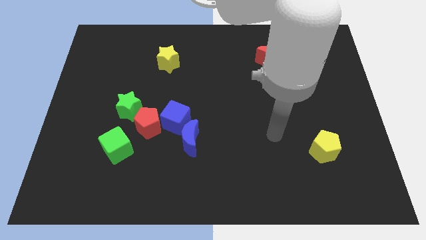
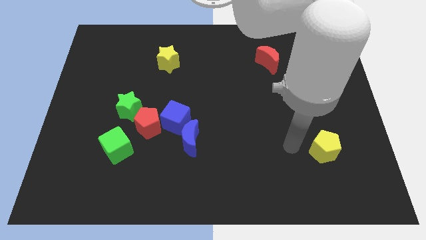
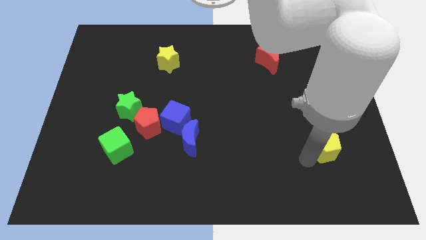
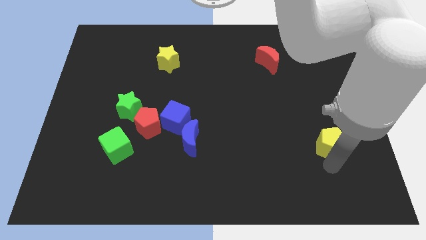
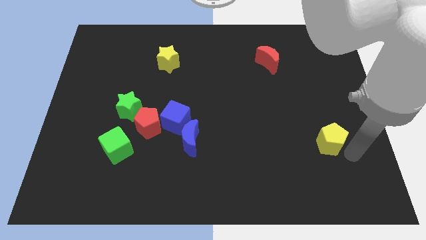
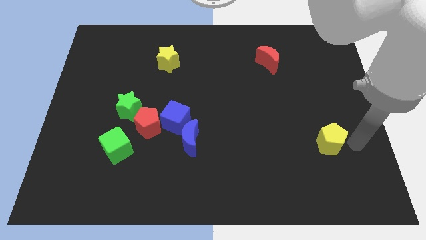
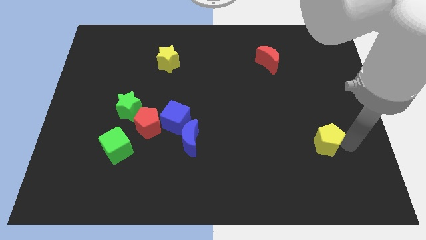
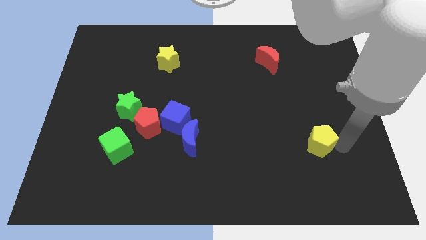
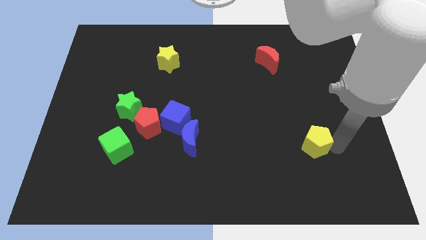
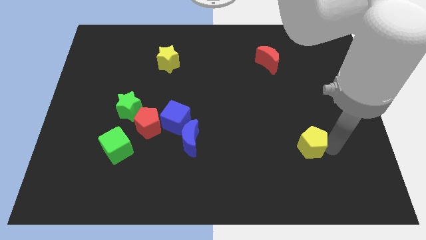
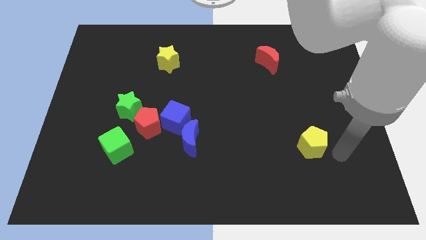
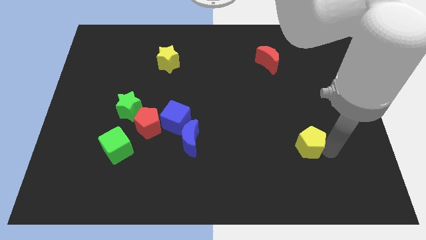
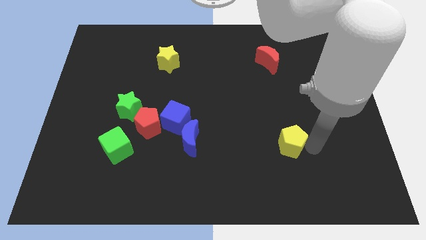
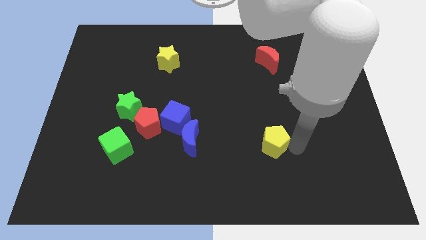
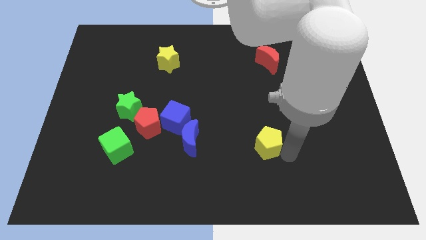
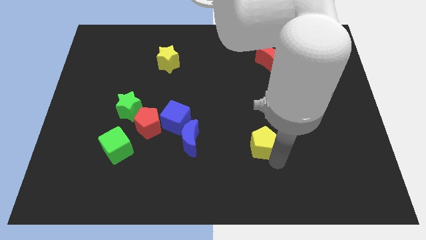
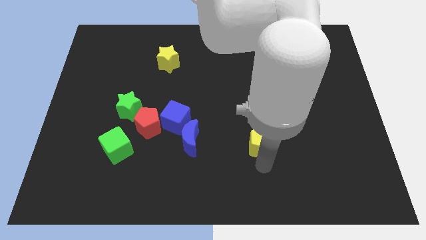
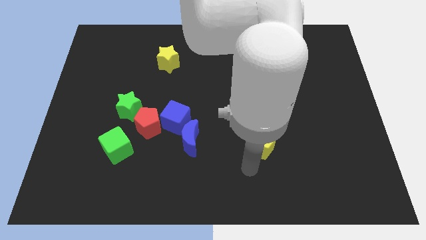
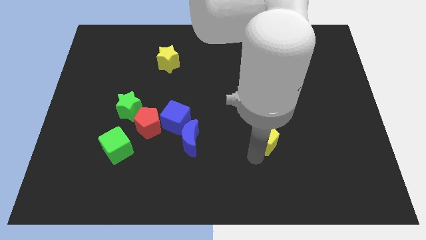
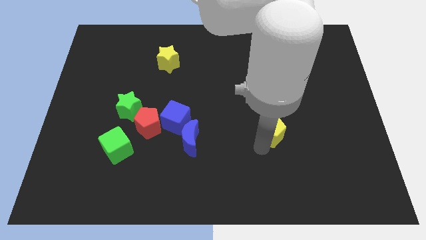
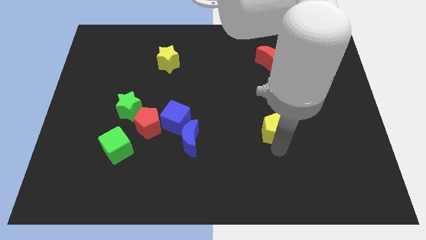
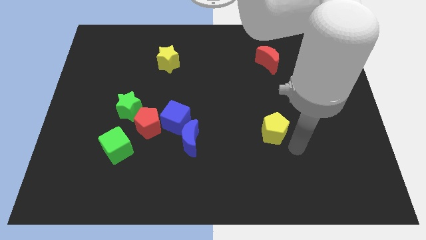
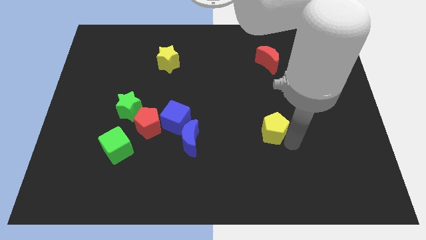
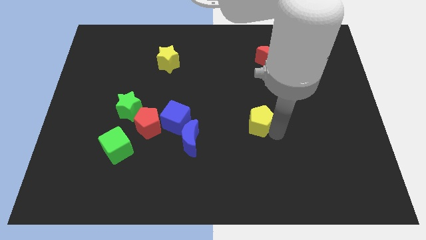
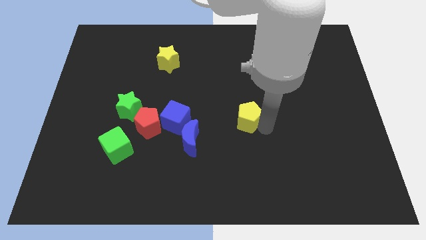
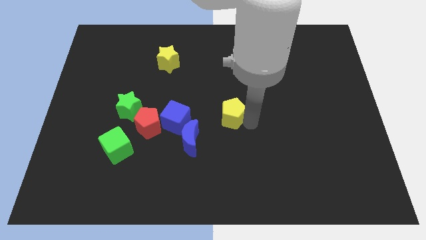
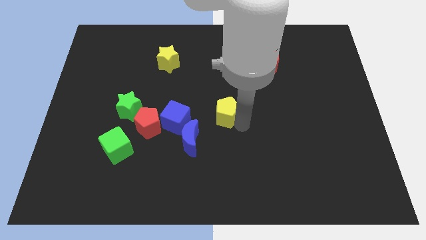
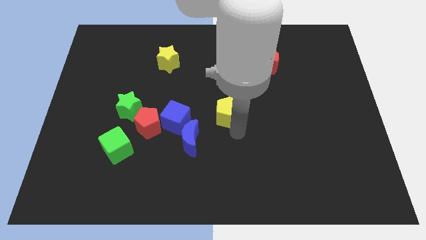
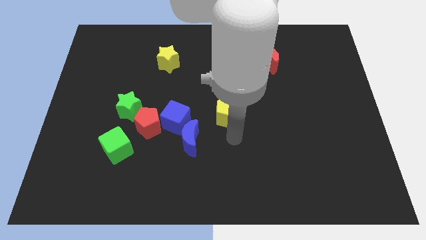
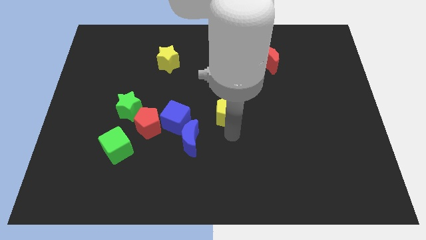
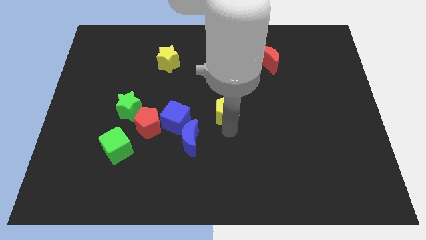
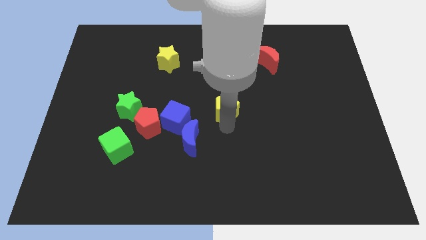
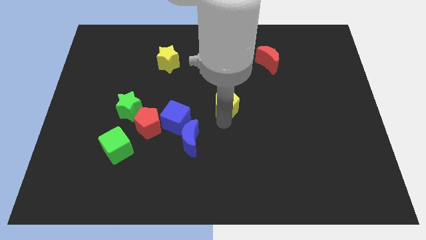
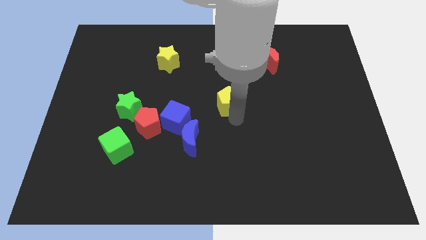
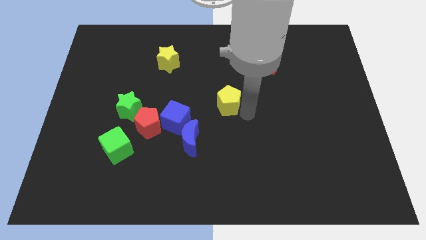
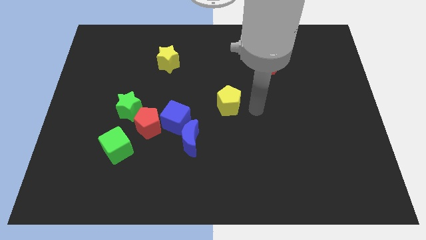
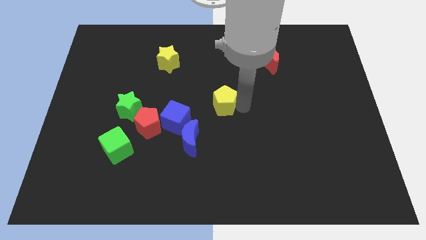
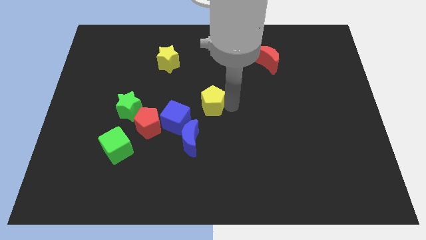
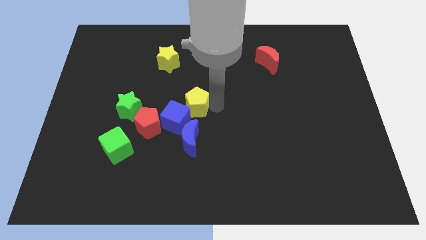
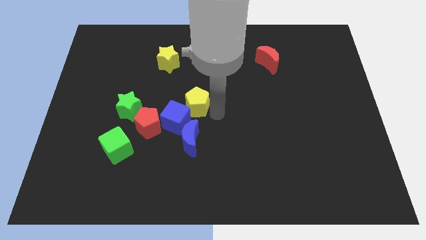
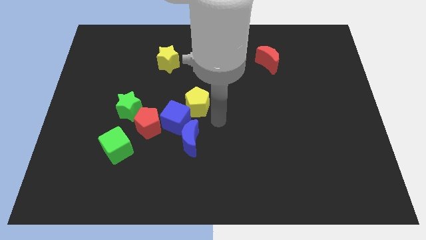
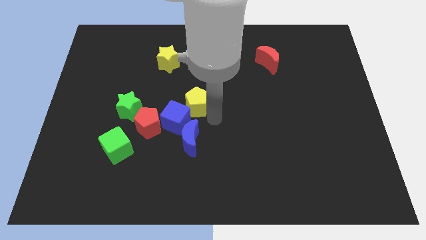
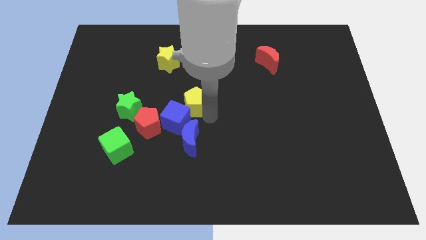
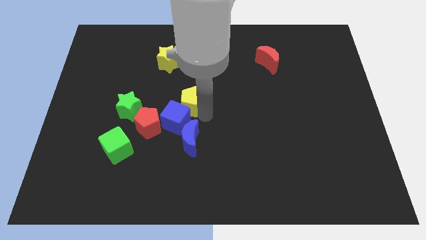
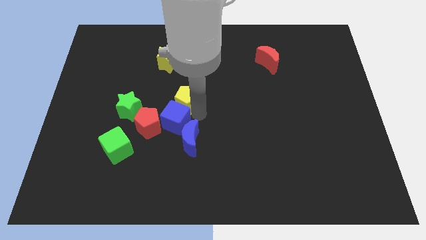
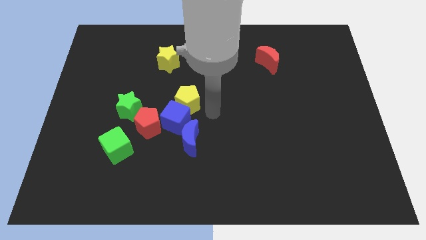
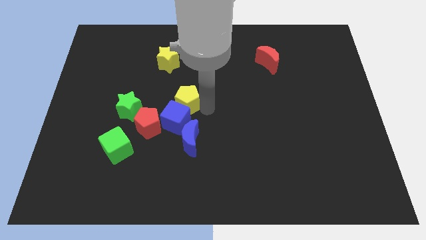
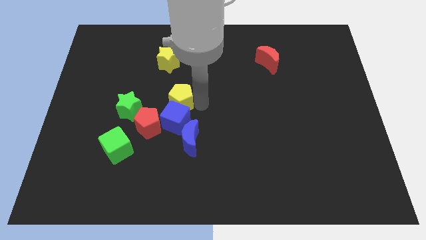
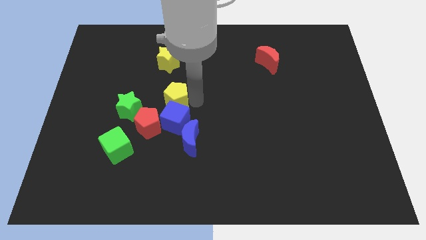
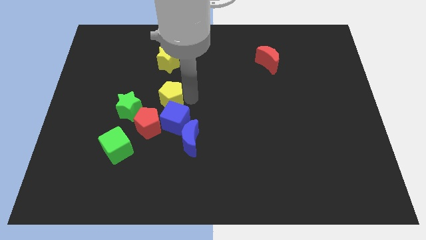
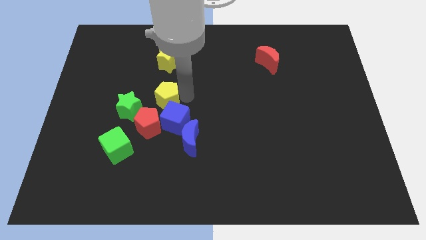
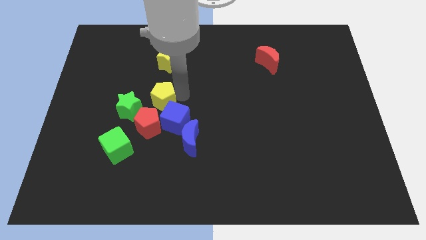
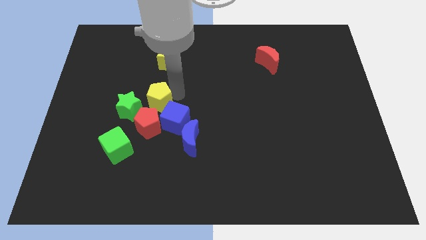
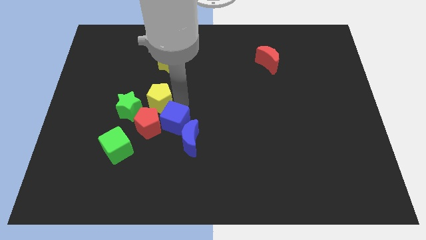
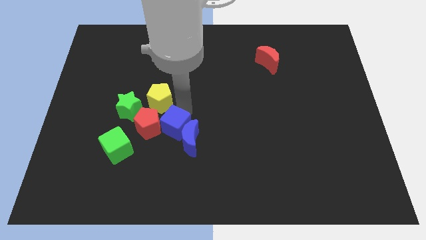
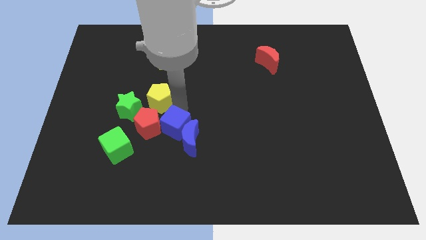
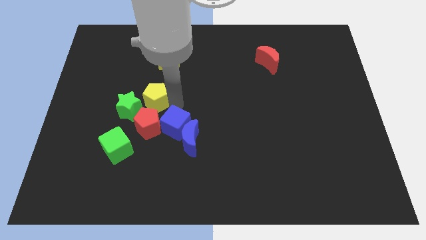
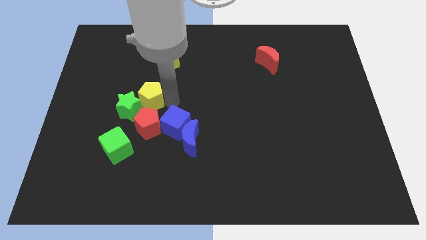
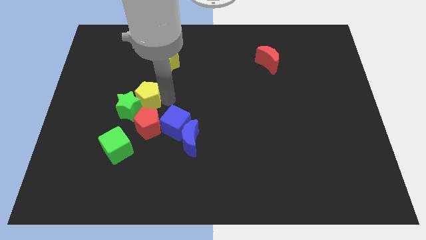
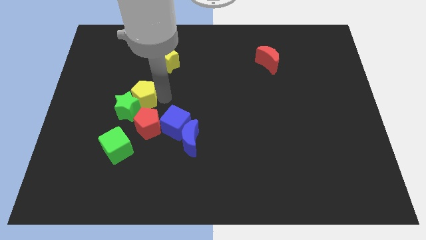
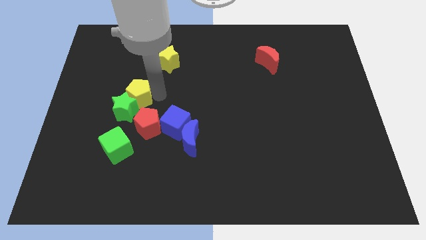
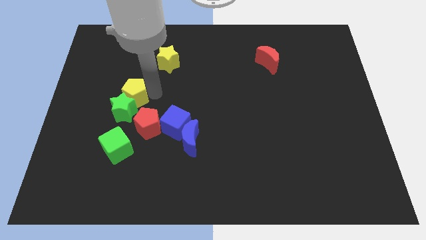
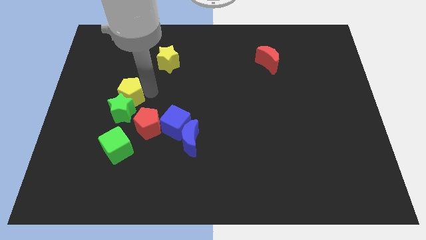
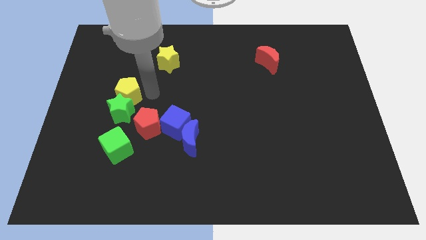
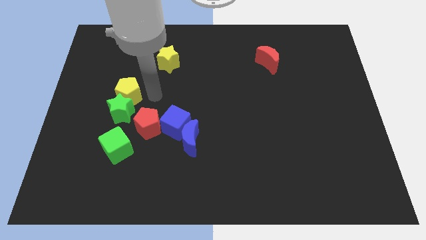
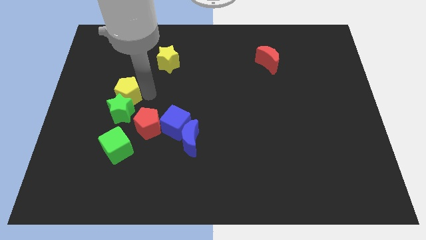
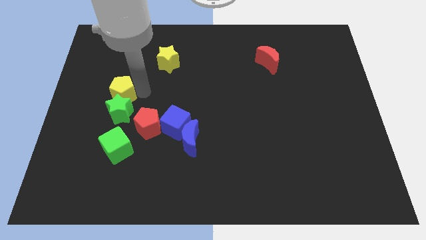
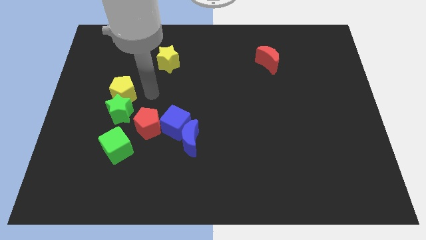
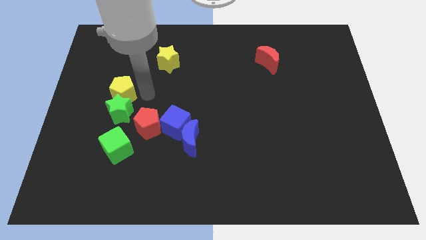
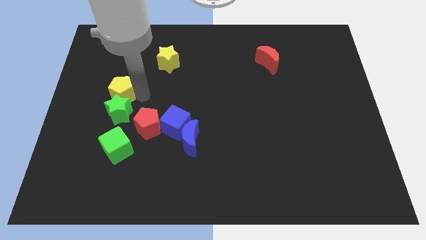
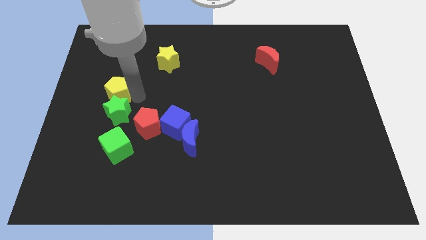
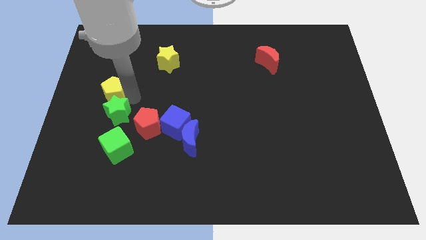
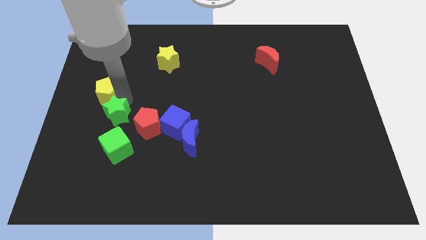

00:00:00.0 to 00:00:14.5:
push the yellow pentagon to the left side of the board
